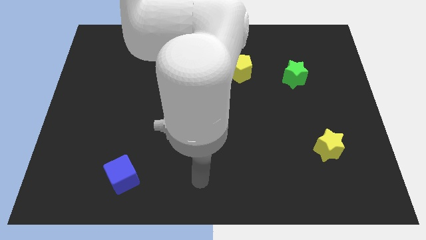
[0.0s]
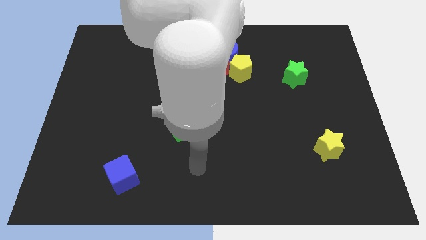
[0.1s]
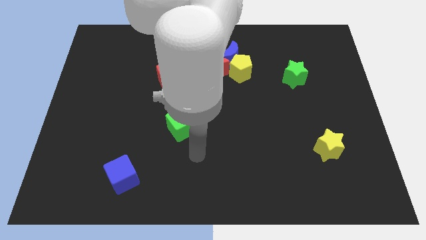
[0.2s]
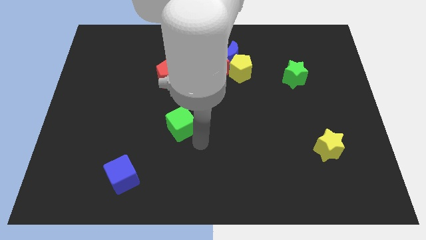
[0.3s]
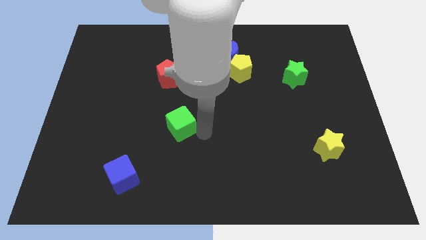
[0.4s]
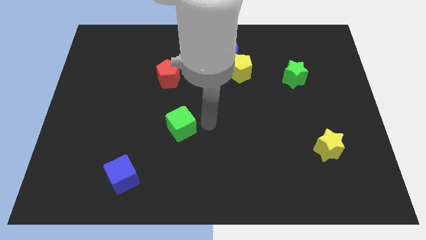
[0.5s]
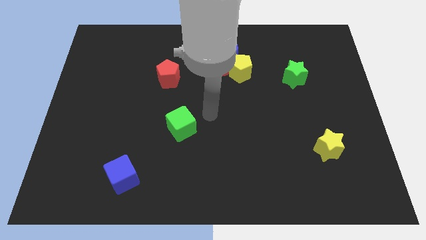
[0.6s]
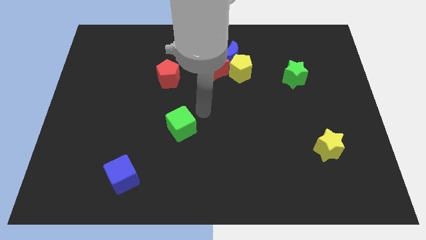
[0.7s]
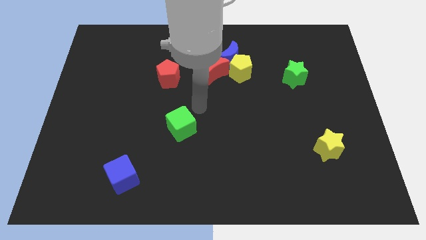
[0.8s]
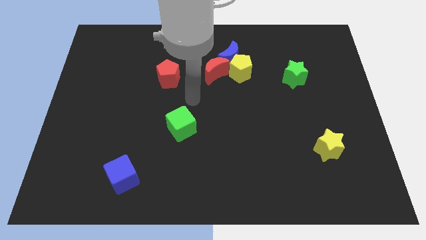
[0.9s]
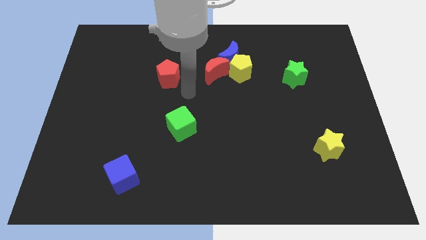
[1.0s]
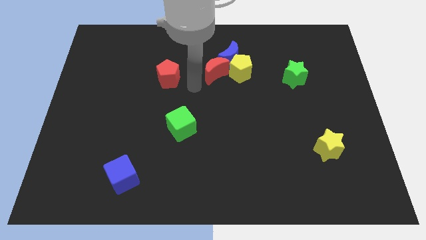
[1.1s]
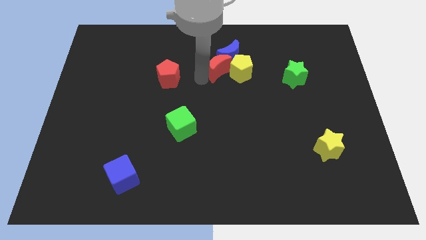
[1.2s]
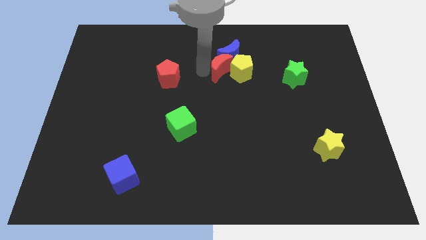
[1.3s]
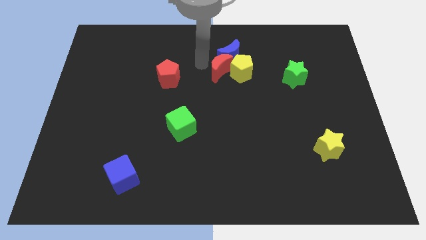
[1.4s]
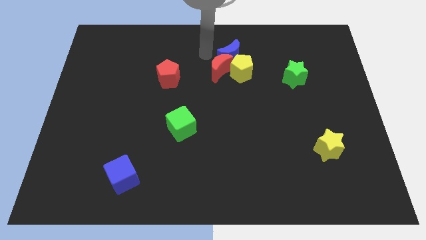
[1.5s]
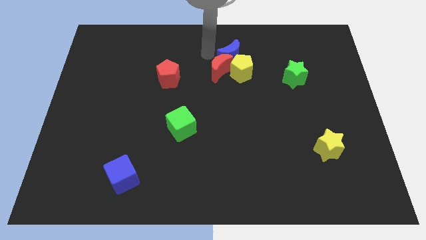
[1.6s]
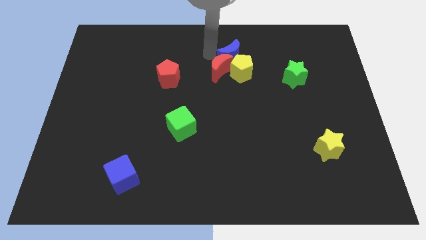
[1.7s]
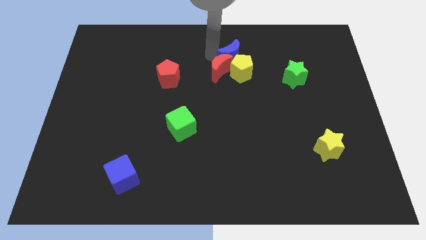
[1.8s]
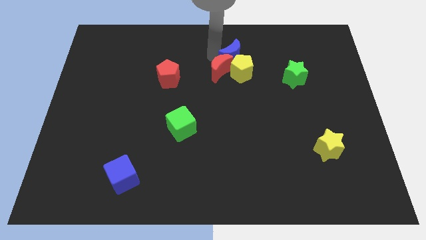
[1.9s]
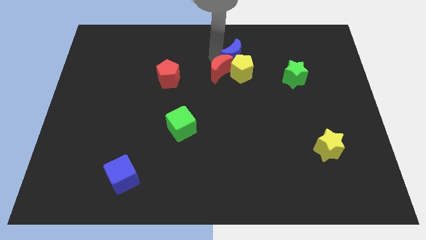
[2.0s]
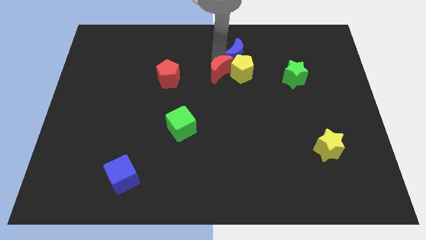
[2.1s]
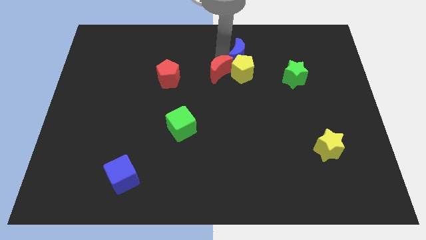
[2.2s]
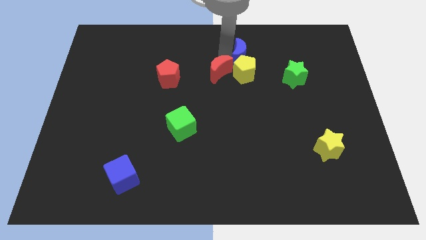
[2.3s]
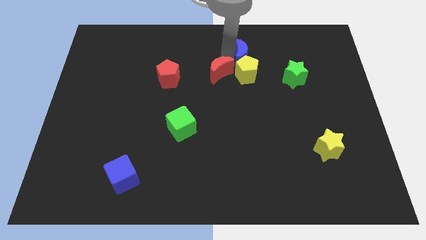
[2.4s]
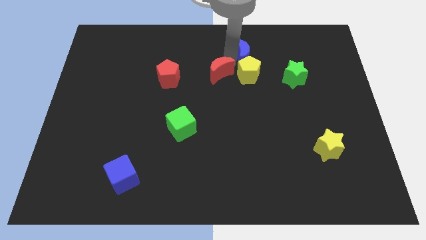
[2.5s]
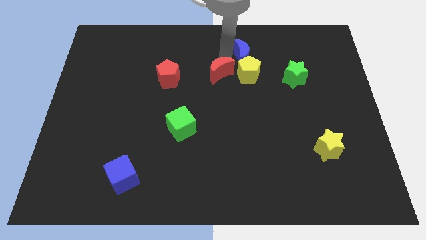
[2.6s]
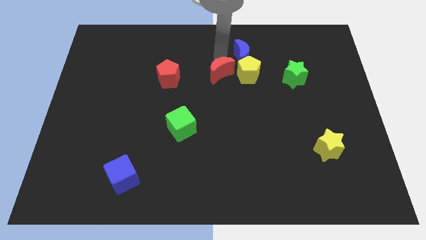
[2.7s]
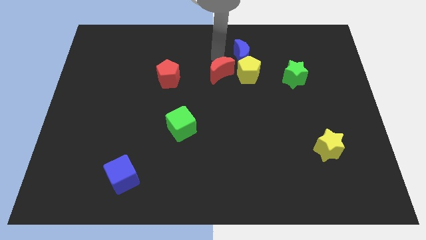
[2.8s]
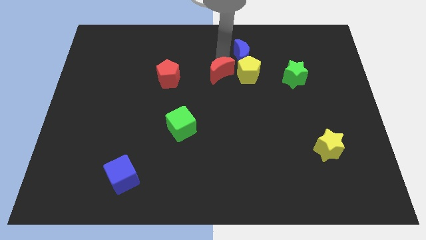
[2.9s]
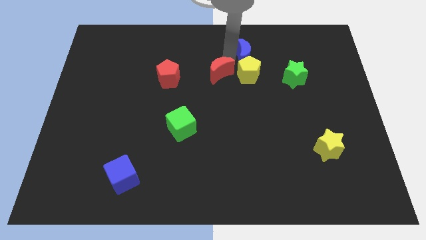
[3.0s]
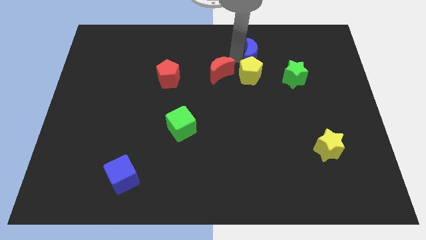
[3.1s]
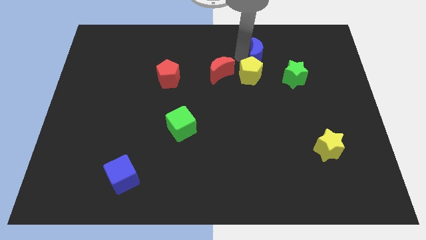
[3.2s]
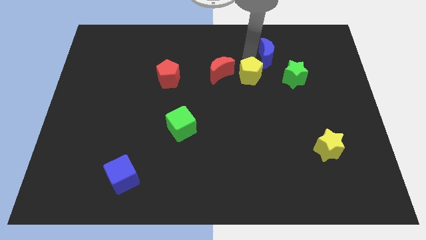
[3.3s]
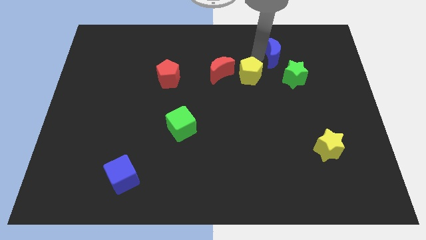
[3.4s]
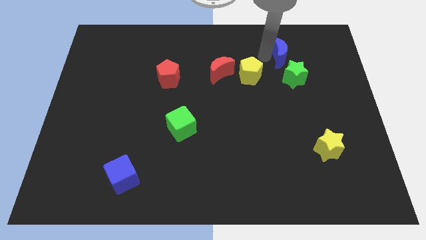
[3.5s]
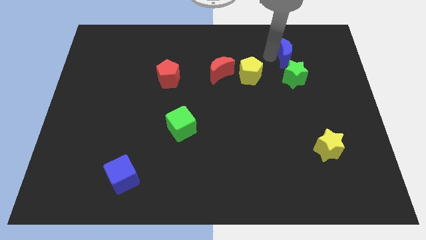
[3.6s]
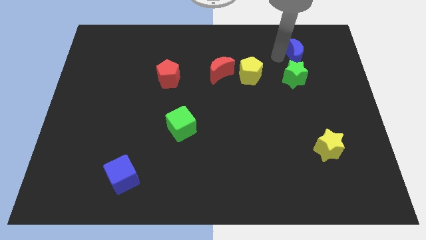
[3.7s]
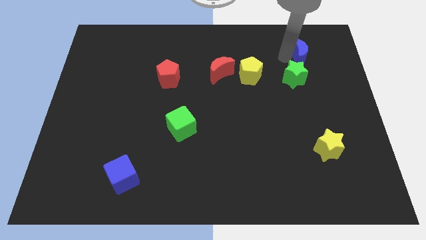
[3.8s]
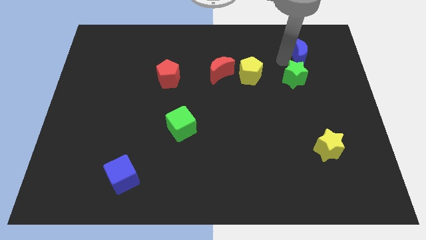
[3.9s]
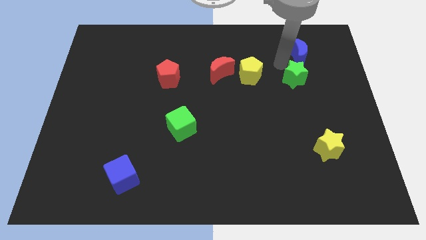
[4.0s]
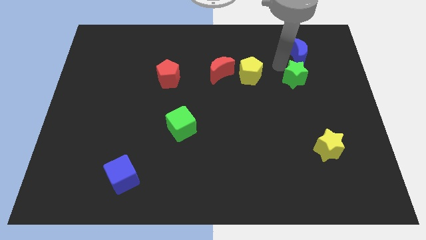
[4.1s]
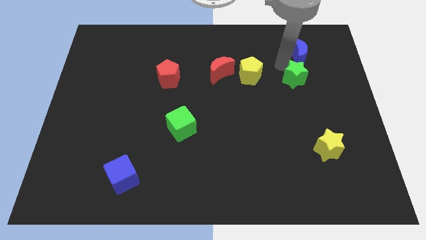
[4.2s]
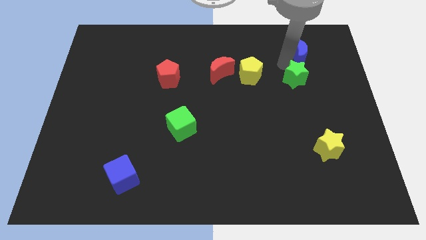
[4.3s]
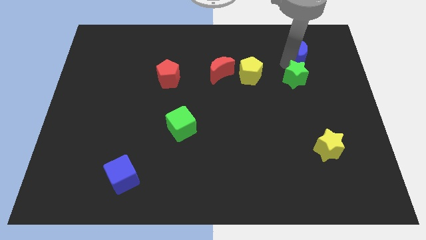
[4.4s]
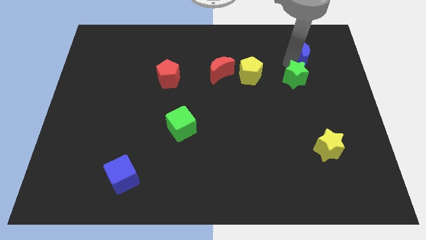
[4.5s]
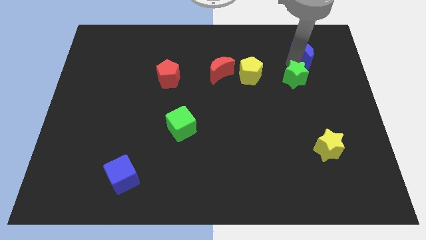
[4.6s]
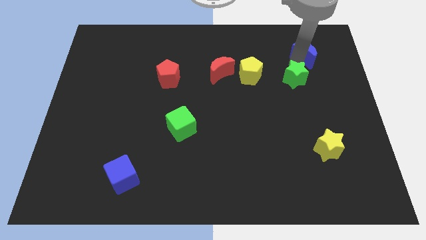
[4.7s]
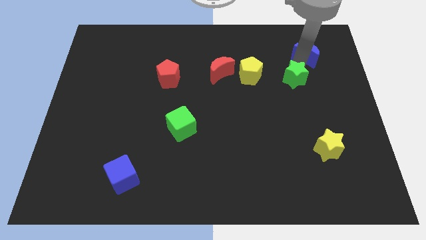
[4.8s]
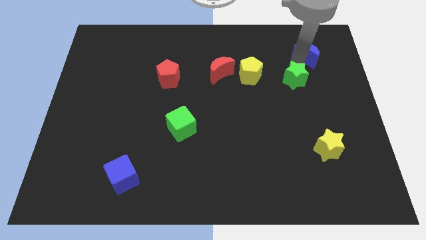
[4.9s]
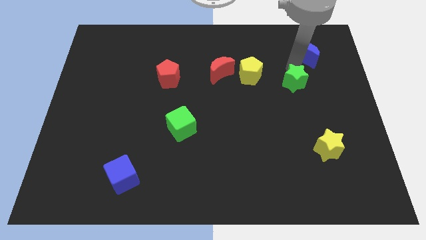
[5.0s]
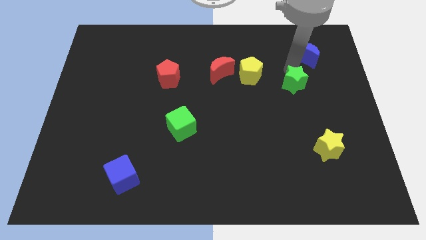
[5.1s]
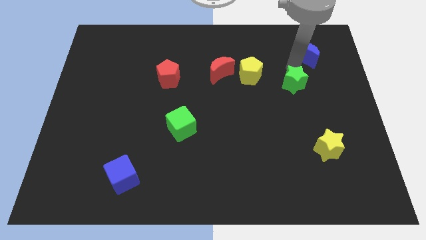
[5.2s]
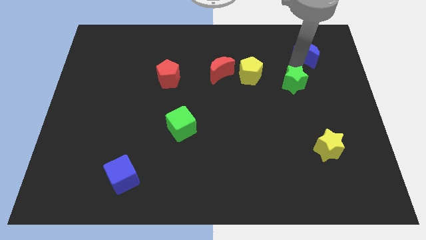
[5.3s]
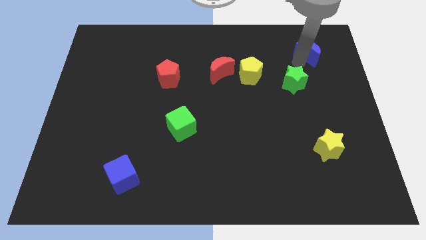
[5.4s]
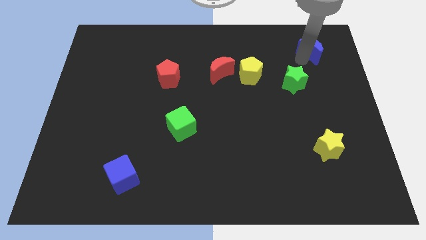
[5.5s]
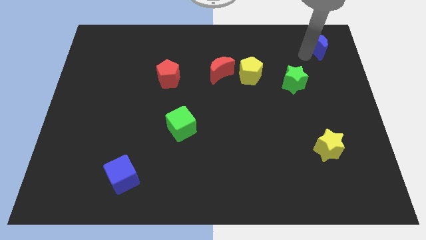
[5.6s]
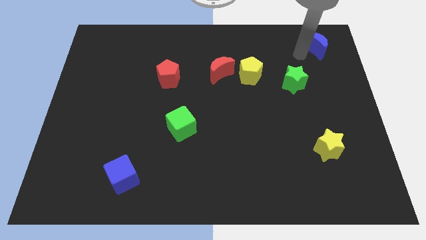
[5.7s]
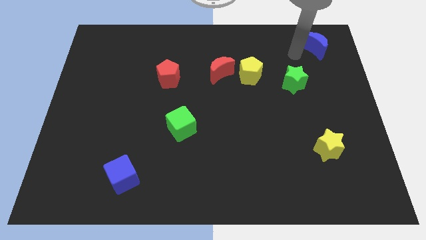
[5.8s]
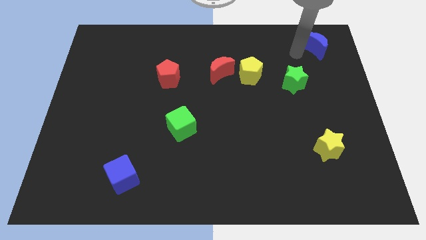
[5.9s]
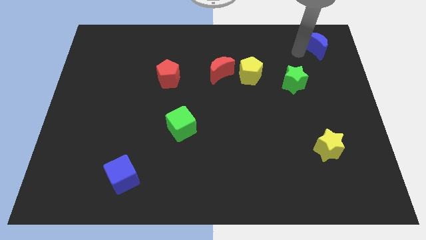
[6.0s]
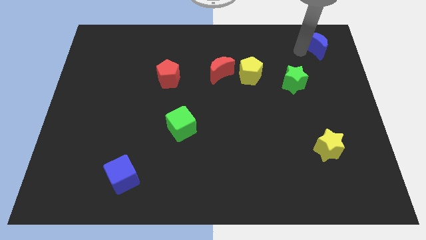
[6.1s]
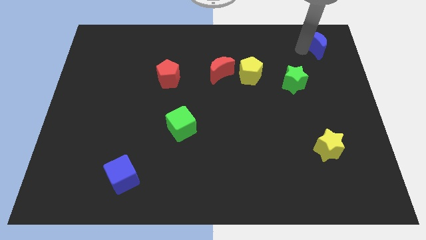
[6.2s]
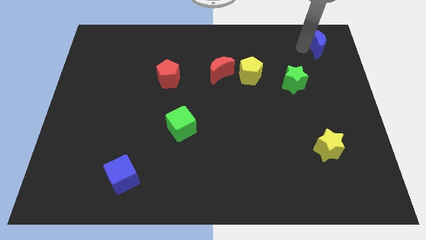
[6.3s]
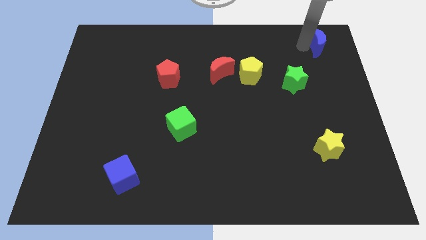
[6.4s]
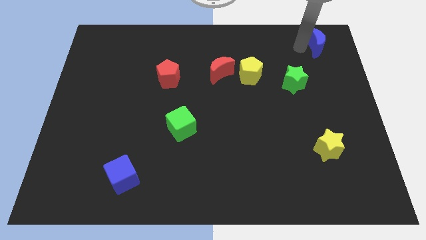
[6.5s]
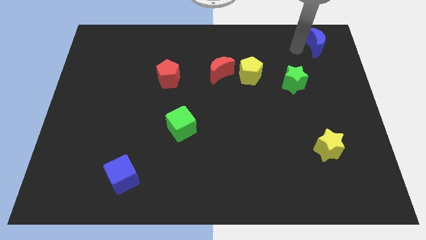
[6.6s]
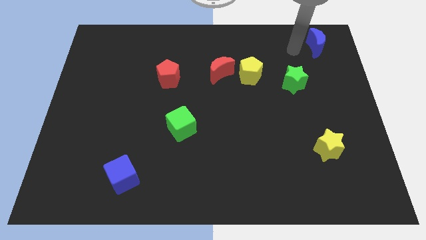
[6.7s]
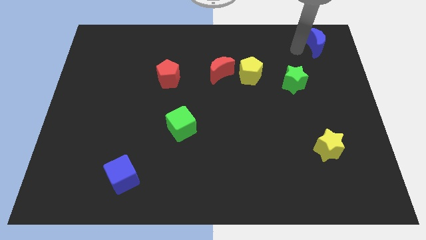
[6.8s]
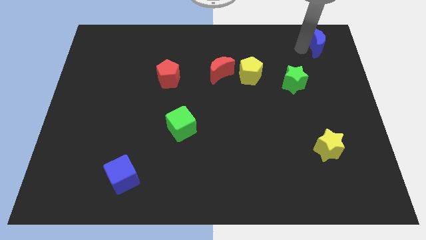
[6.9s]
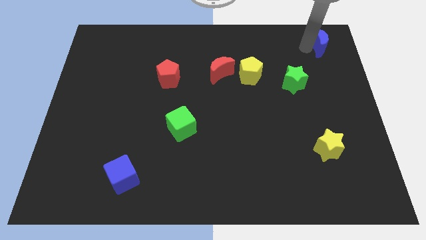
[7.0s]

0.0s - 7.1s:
move the blue moon to the top right
